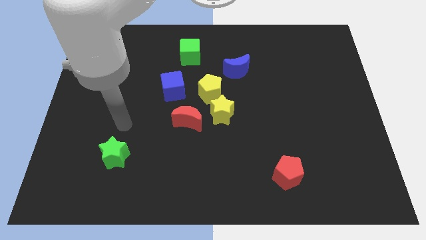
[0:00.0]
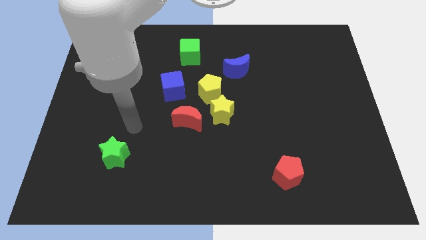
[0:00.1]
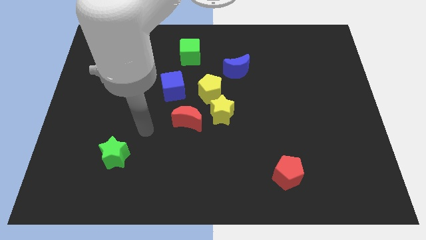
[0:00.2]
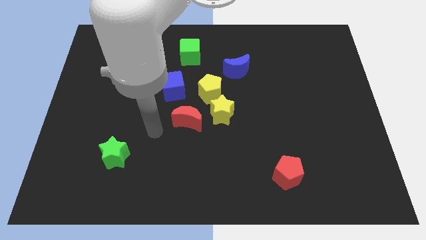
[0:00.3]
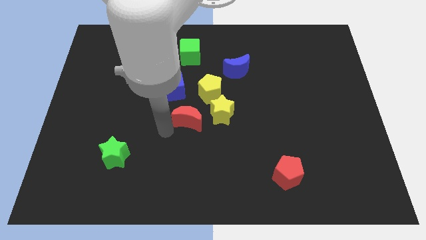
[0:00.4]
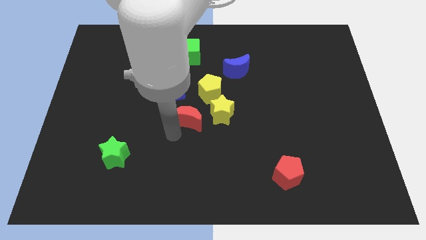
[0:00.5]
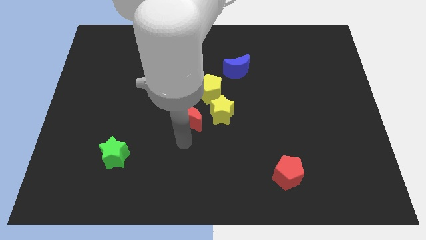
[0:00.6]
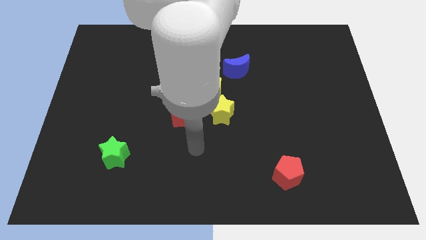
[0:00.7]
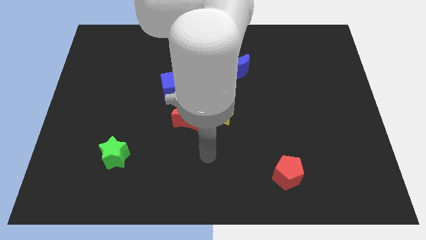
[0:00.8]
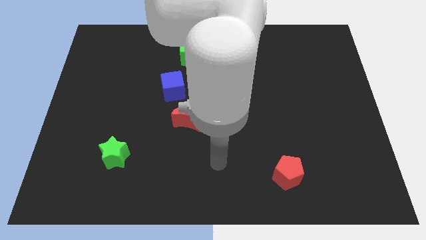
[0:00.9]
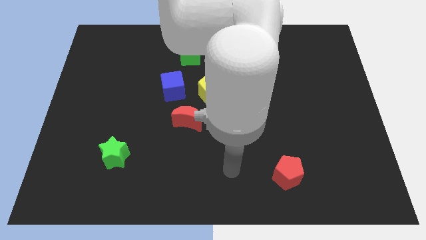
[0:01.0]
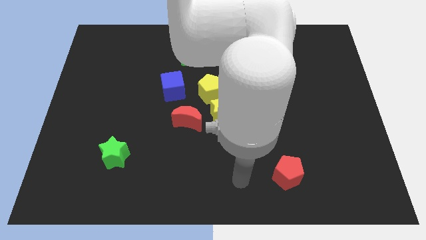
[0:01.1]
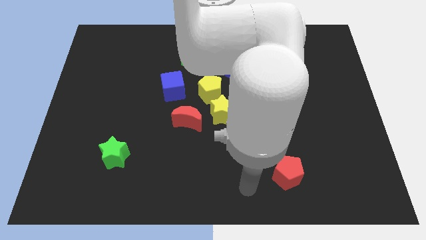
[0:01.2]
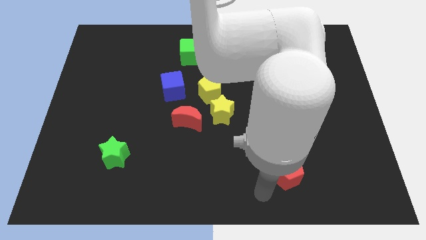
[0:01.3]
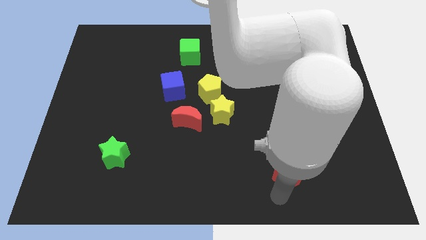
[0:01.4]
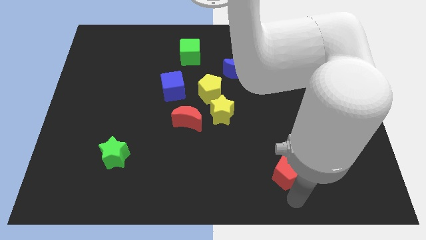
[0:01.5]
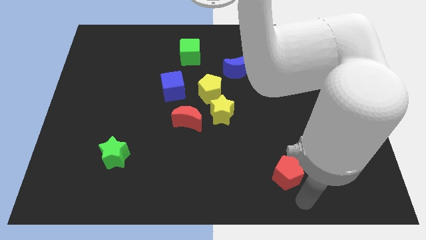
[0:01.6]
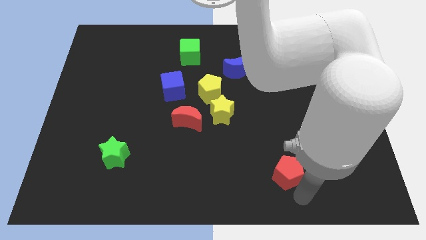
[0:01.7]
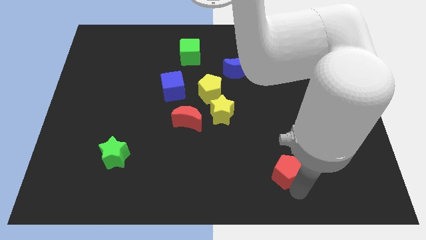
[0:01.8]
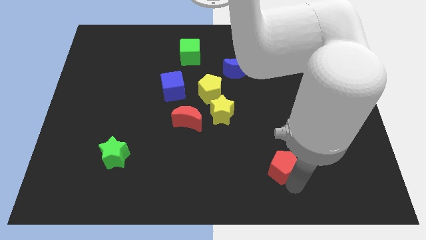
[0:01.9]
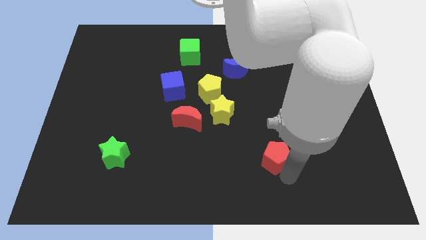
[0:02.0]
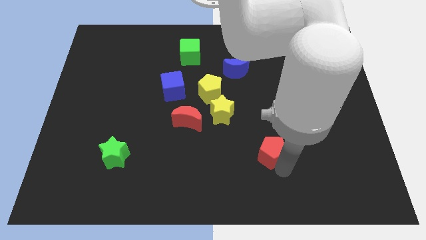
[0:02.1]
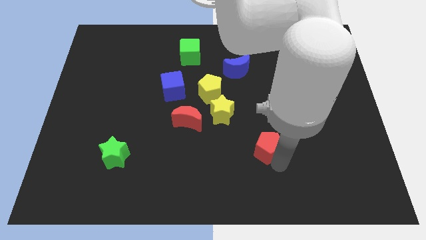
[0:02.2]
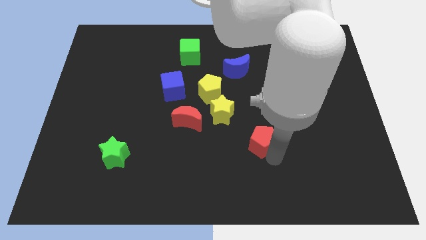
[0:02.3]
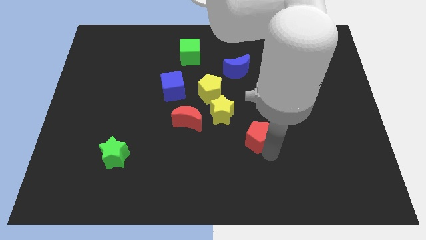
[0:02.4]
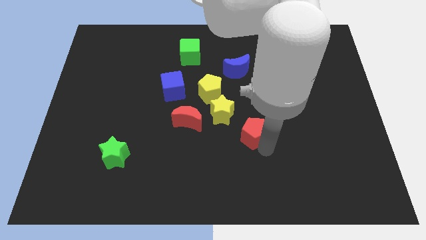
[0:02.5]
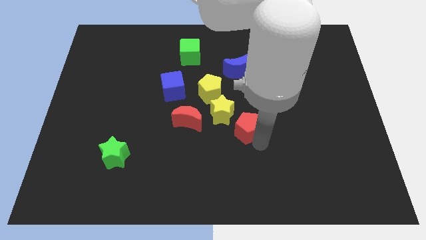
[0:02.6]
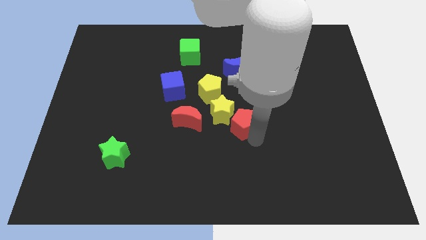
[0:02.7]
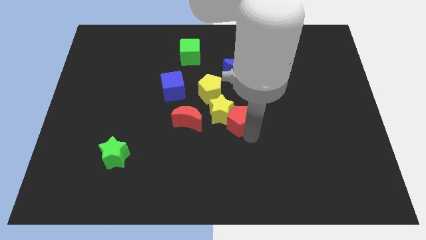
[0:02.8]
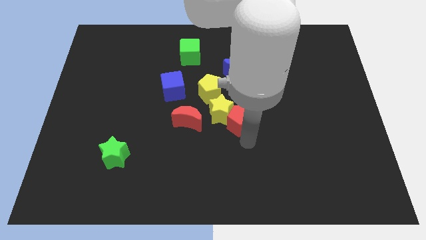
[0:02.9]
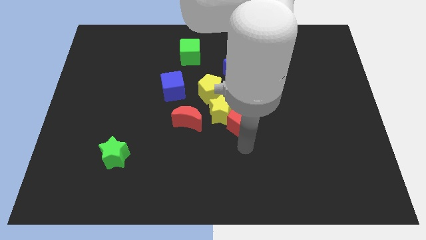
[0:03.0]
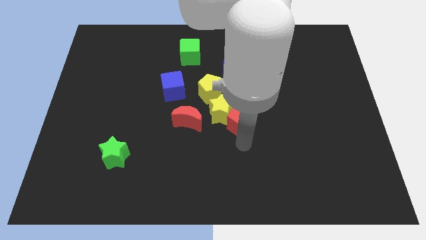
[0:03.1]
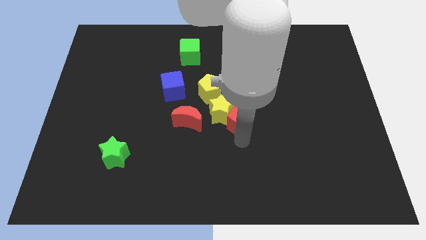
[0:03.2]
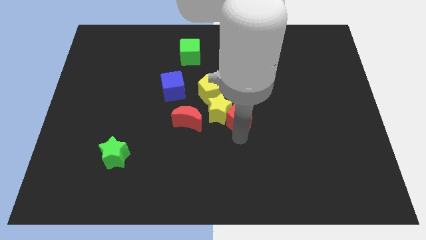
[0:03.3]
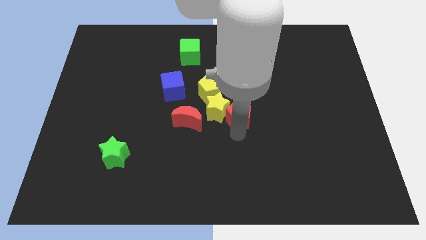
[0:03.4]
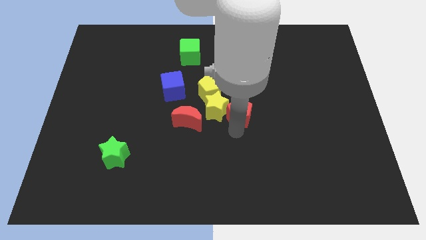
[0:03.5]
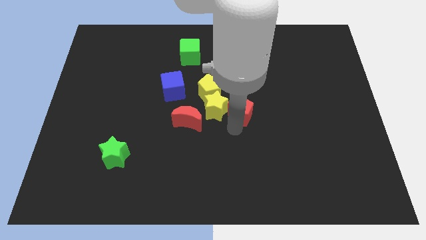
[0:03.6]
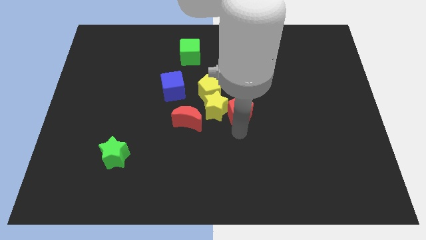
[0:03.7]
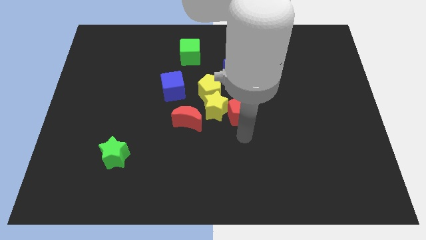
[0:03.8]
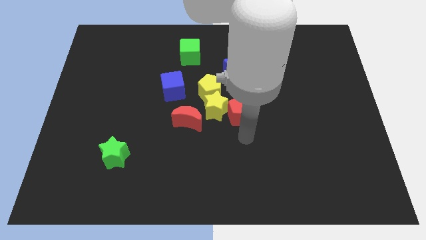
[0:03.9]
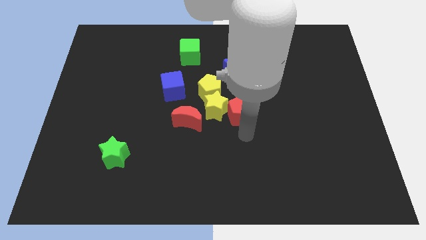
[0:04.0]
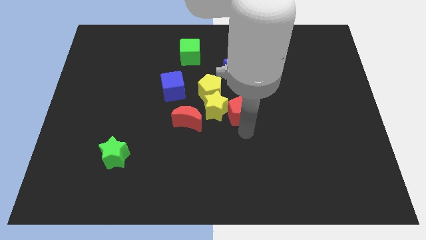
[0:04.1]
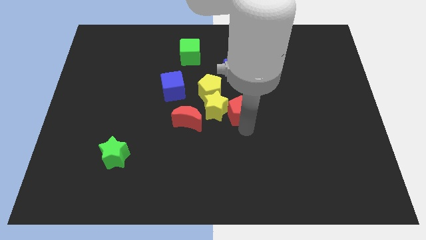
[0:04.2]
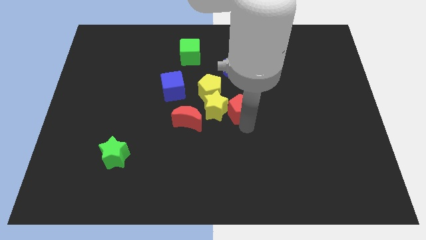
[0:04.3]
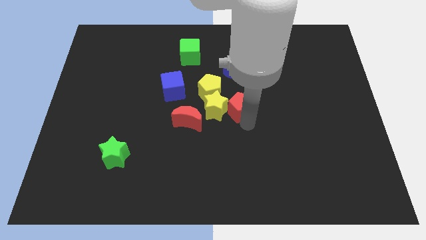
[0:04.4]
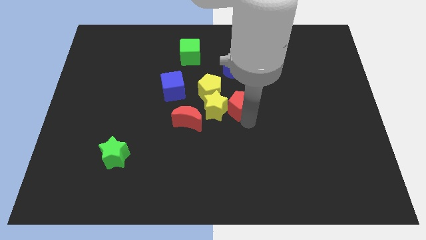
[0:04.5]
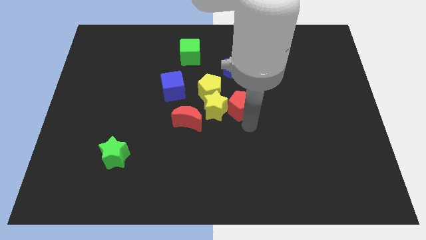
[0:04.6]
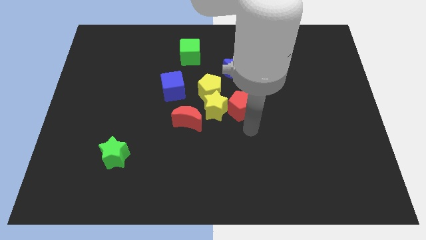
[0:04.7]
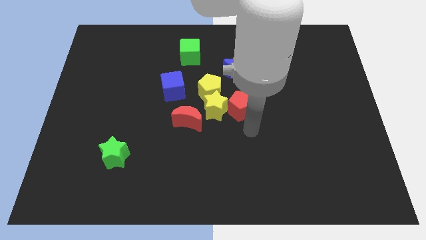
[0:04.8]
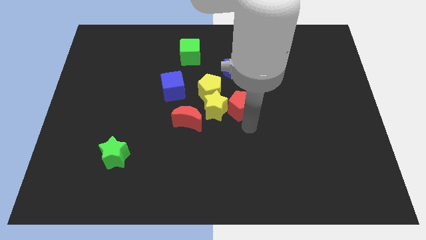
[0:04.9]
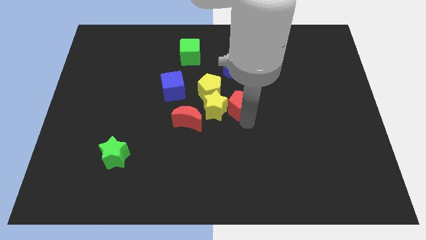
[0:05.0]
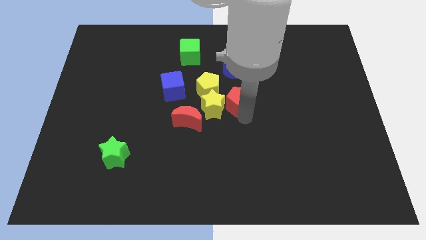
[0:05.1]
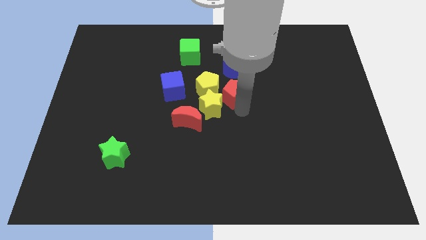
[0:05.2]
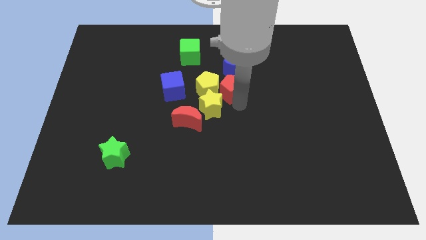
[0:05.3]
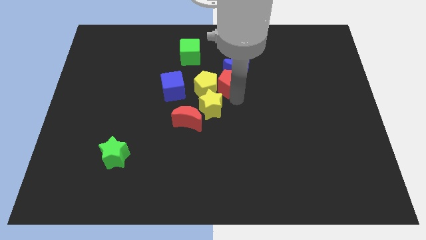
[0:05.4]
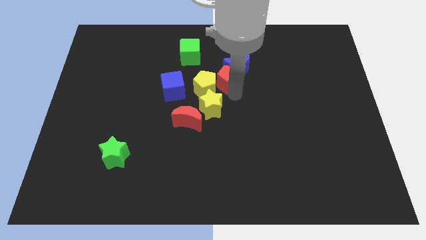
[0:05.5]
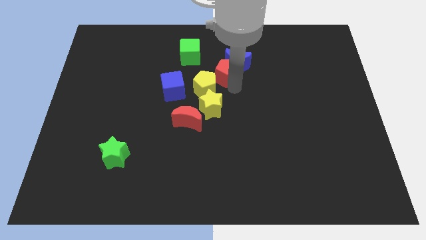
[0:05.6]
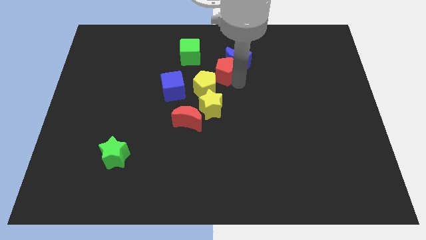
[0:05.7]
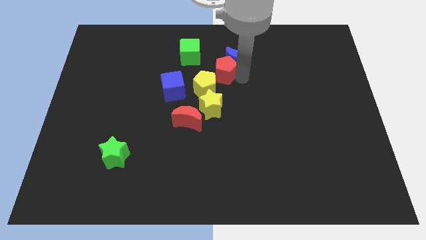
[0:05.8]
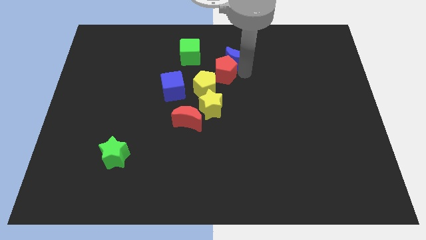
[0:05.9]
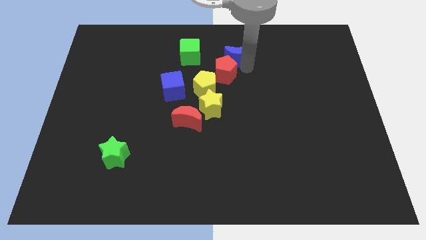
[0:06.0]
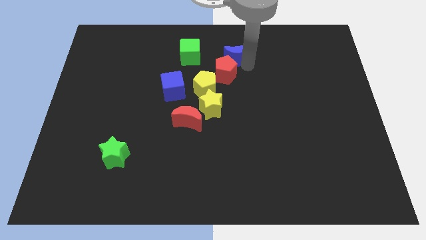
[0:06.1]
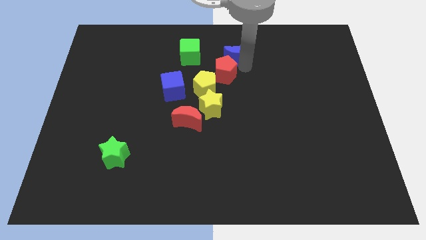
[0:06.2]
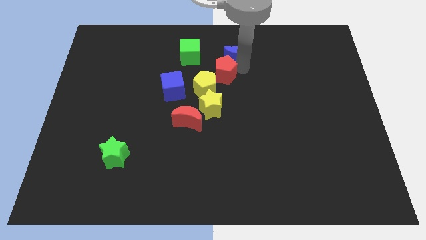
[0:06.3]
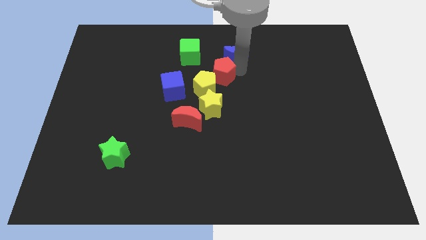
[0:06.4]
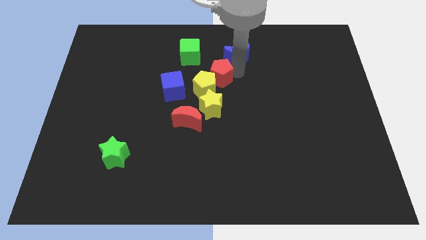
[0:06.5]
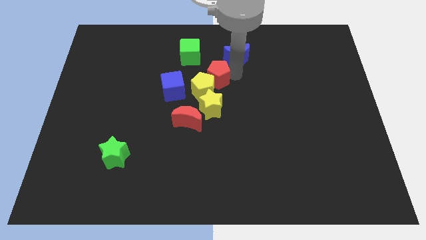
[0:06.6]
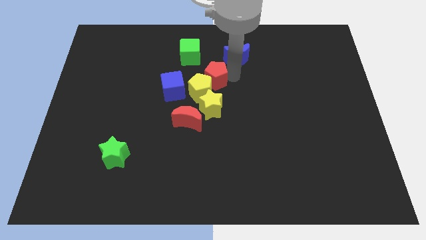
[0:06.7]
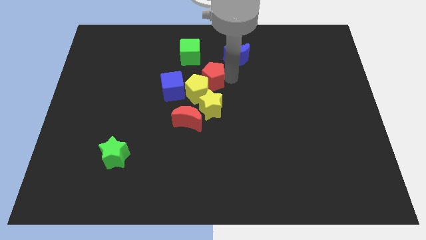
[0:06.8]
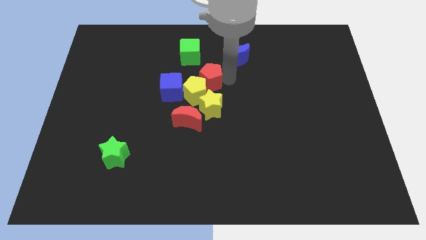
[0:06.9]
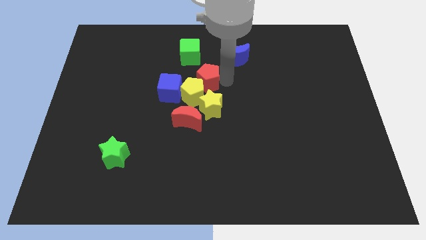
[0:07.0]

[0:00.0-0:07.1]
put the red pentagon to the top side of the red moon
